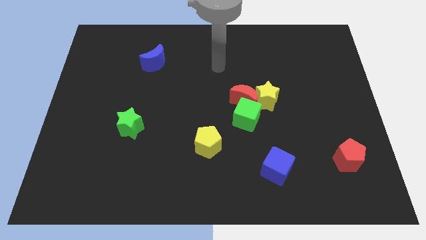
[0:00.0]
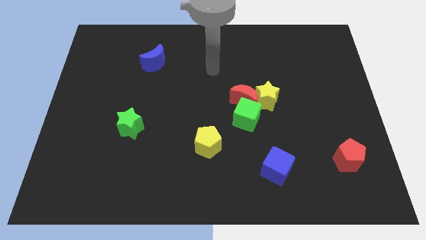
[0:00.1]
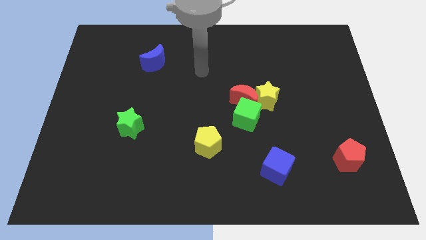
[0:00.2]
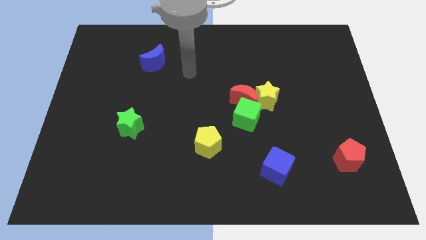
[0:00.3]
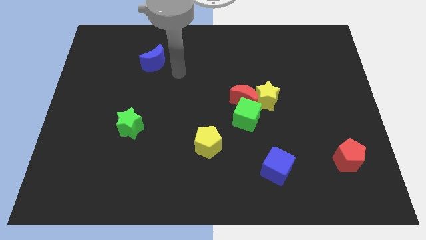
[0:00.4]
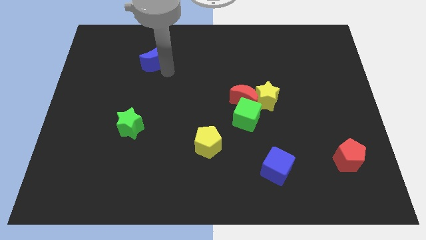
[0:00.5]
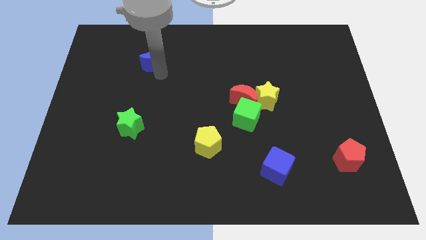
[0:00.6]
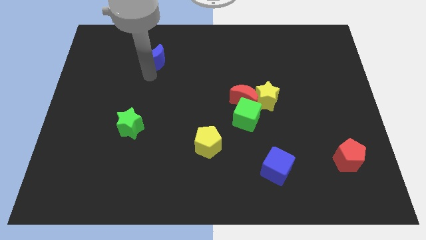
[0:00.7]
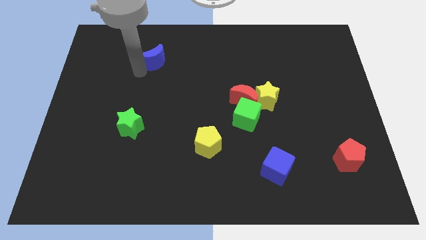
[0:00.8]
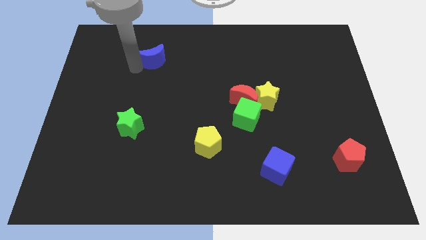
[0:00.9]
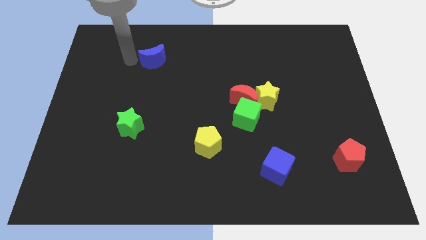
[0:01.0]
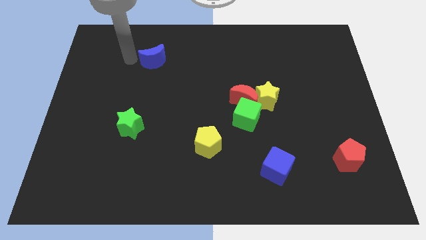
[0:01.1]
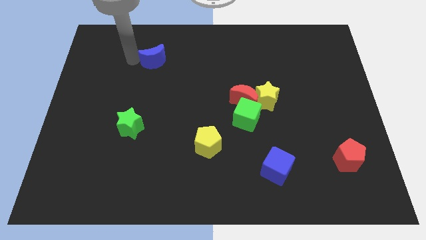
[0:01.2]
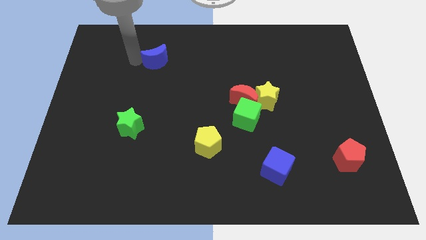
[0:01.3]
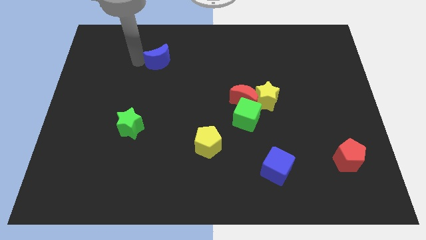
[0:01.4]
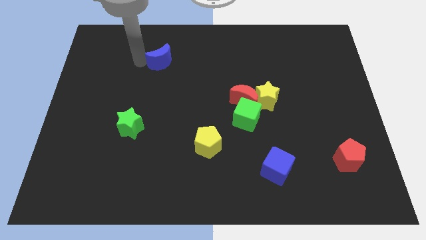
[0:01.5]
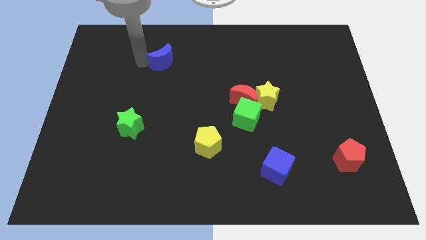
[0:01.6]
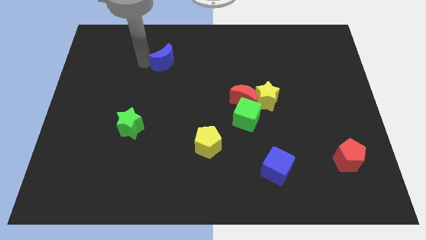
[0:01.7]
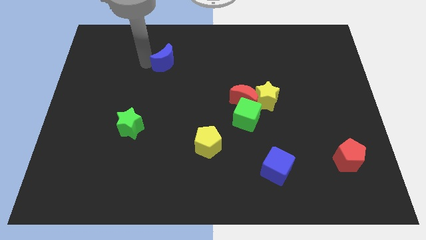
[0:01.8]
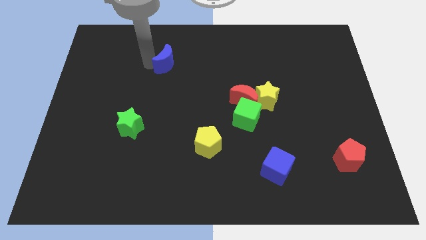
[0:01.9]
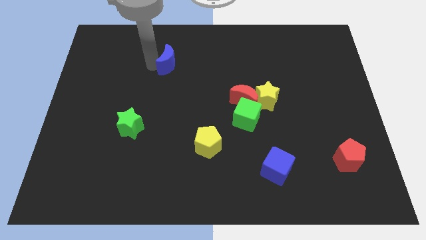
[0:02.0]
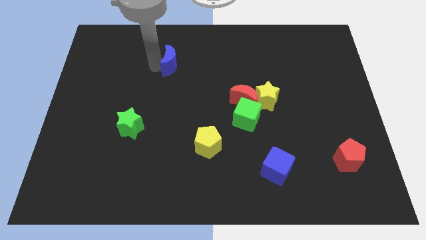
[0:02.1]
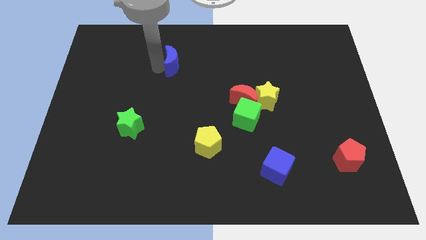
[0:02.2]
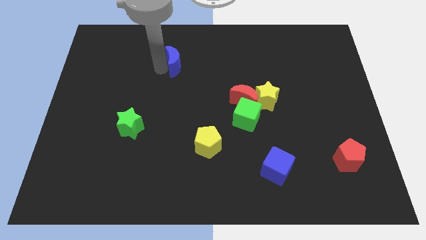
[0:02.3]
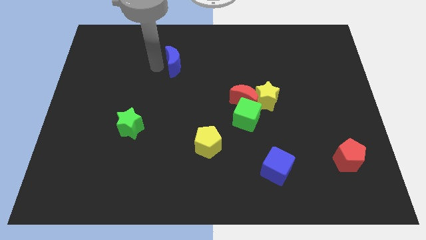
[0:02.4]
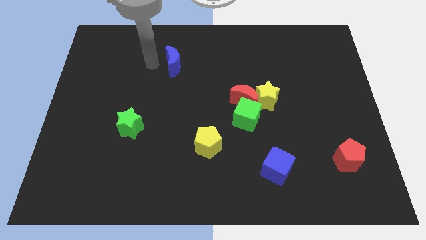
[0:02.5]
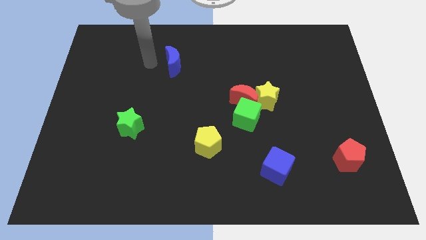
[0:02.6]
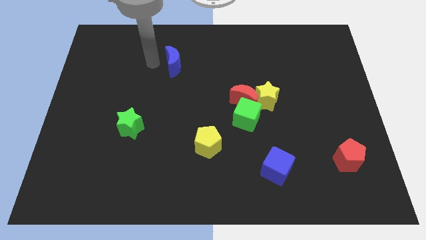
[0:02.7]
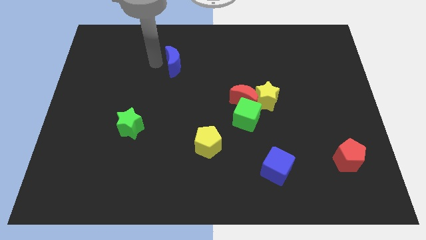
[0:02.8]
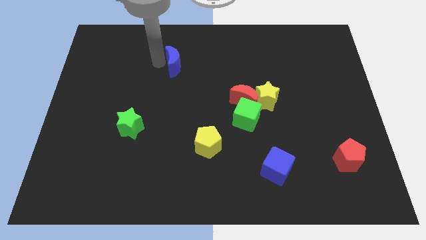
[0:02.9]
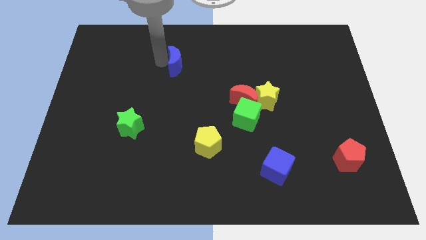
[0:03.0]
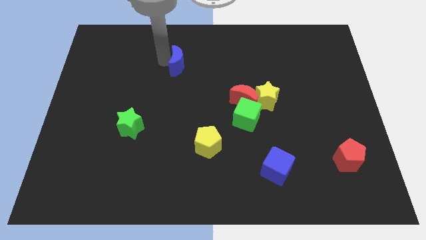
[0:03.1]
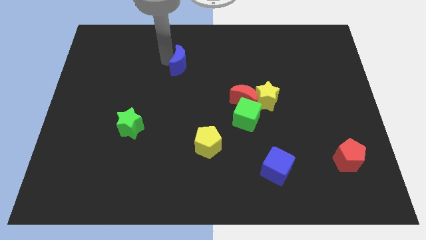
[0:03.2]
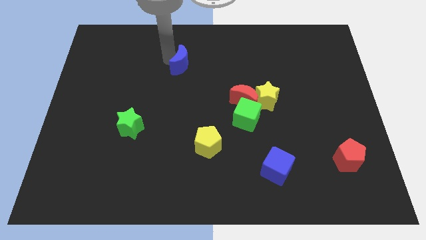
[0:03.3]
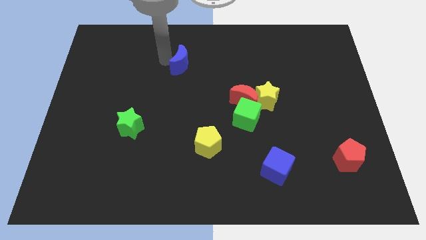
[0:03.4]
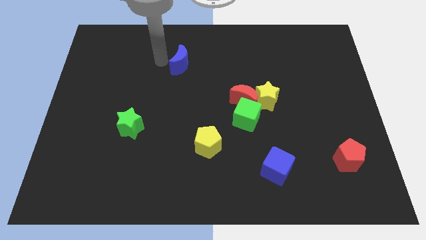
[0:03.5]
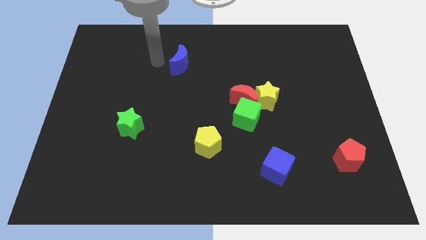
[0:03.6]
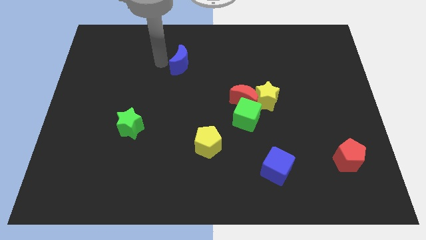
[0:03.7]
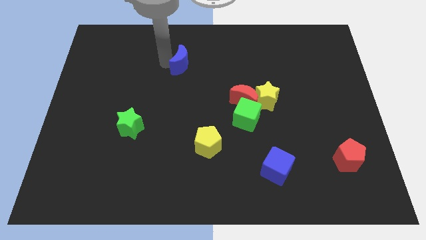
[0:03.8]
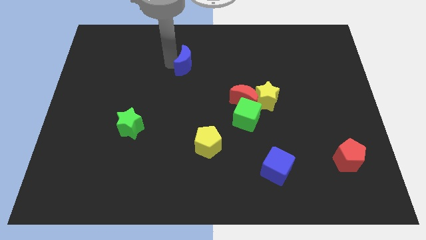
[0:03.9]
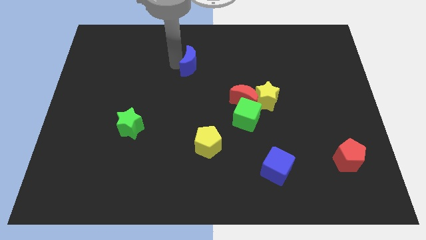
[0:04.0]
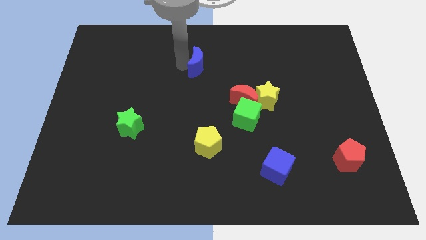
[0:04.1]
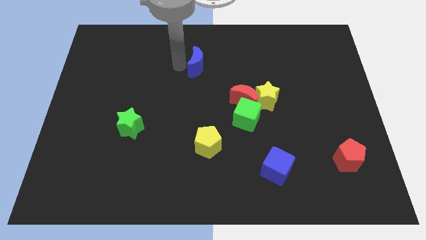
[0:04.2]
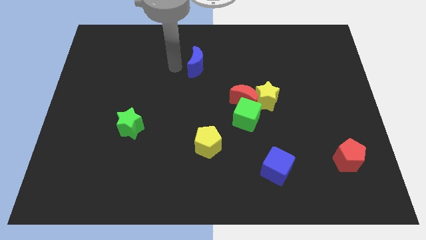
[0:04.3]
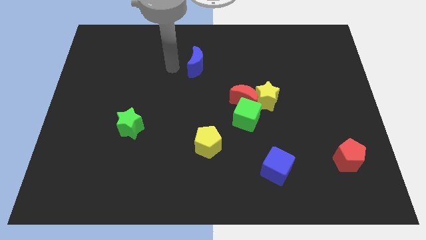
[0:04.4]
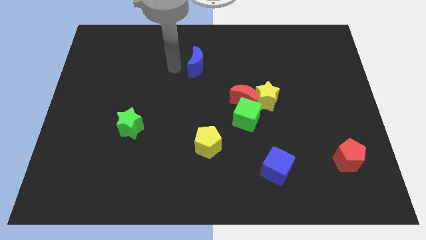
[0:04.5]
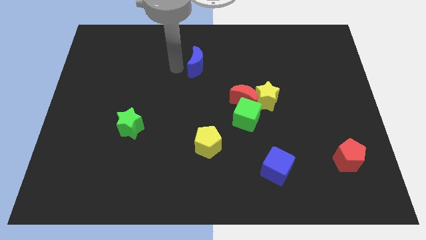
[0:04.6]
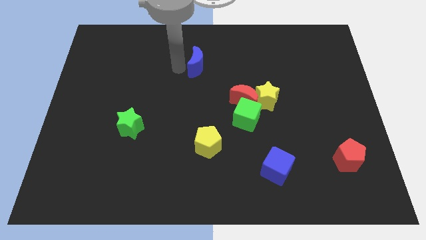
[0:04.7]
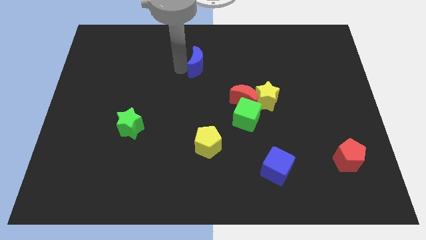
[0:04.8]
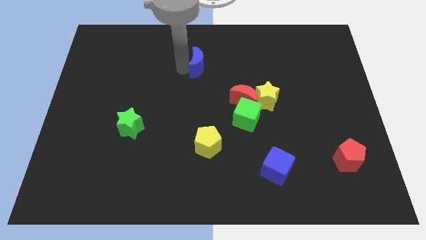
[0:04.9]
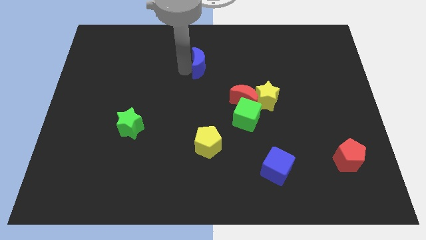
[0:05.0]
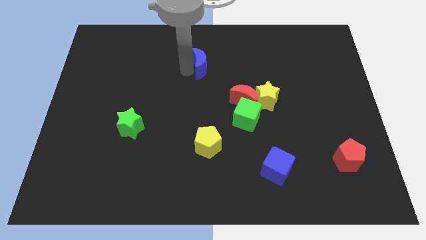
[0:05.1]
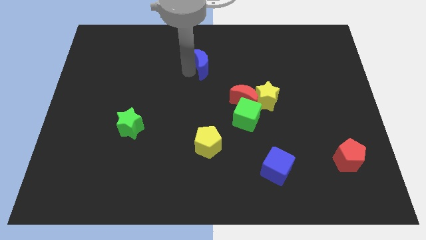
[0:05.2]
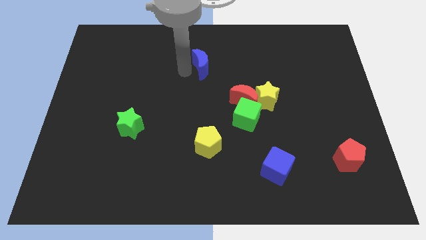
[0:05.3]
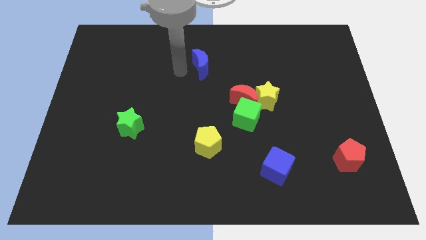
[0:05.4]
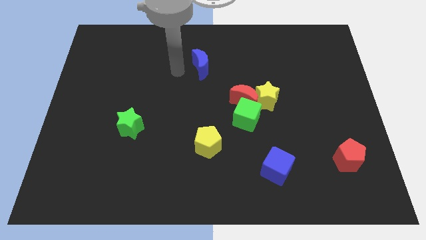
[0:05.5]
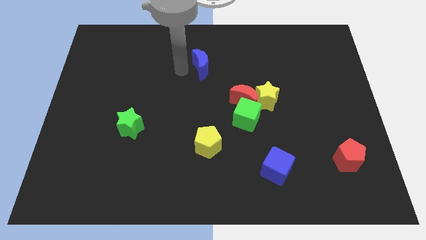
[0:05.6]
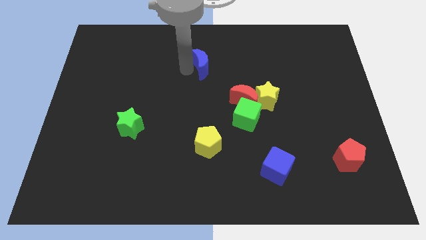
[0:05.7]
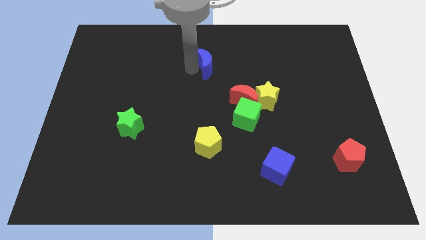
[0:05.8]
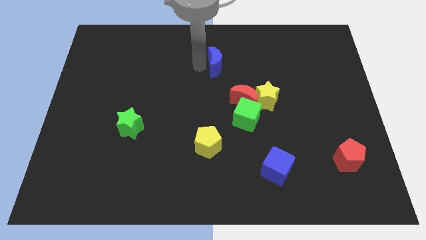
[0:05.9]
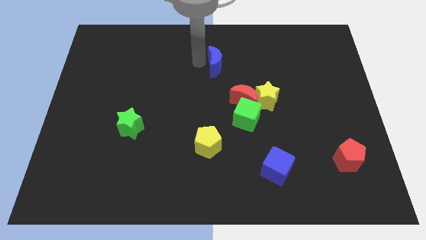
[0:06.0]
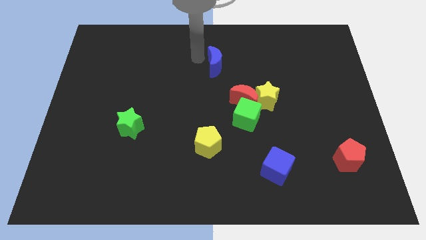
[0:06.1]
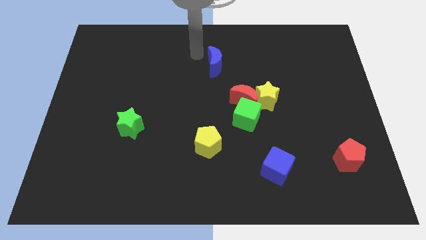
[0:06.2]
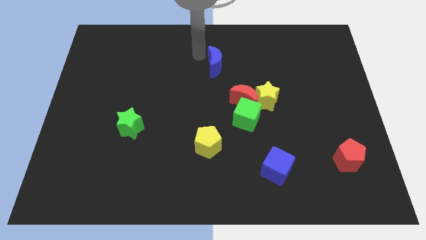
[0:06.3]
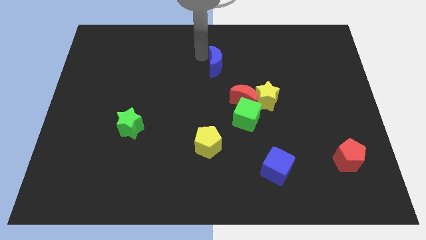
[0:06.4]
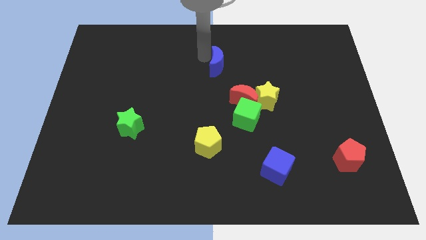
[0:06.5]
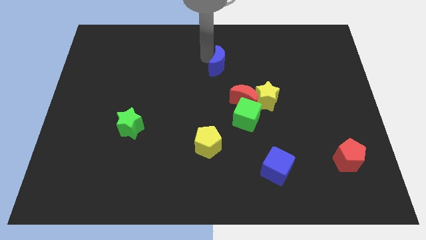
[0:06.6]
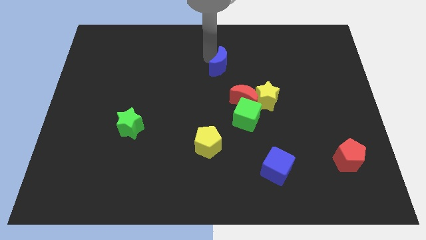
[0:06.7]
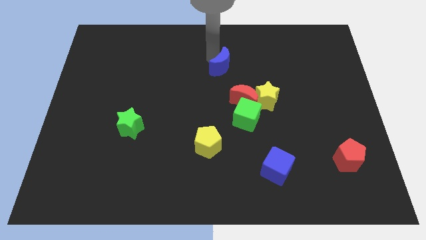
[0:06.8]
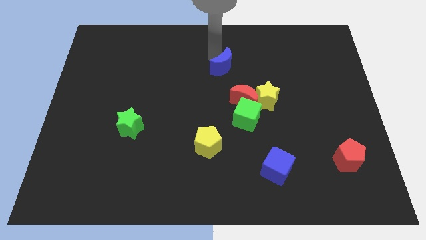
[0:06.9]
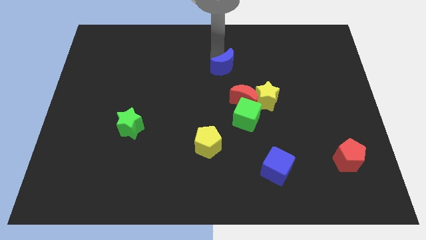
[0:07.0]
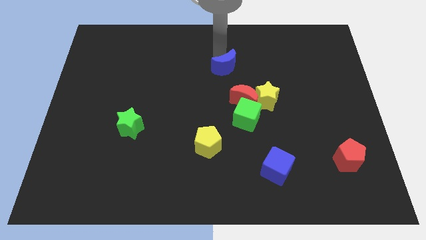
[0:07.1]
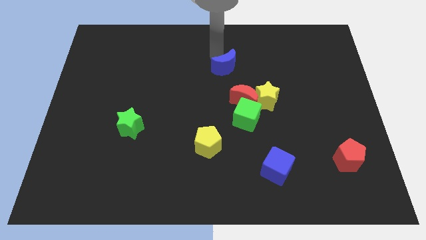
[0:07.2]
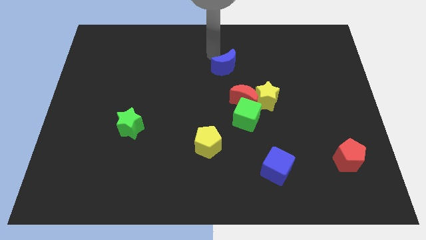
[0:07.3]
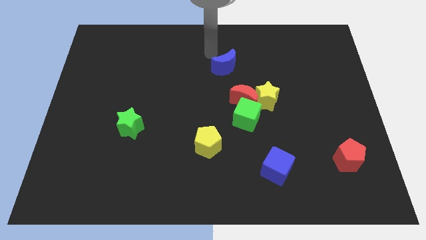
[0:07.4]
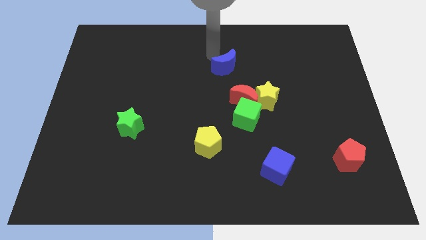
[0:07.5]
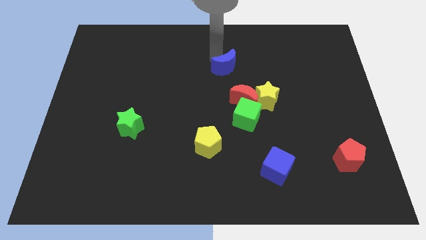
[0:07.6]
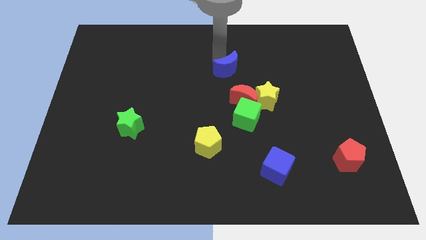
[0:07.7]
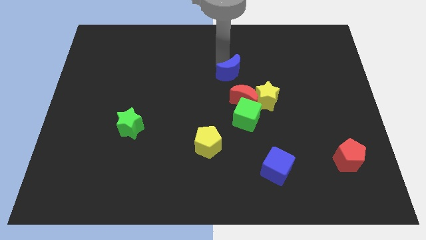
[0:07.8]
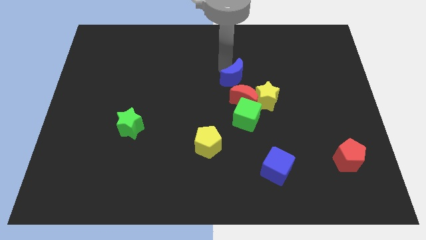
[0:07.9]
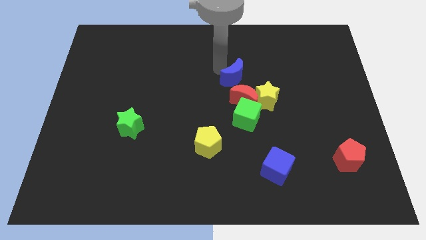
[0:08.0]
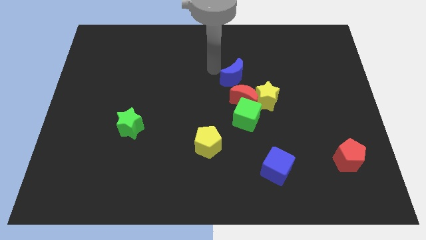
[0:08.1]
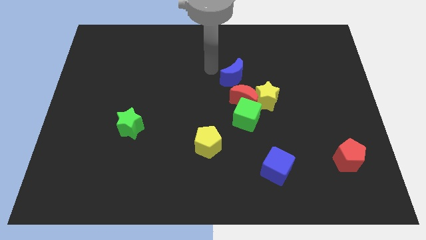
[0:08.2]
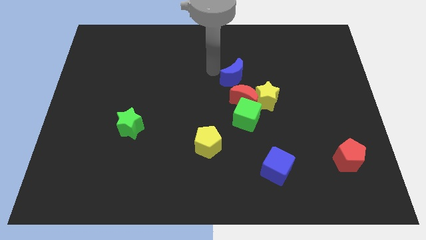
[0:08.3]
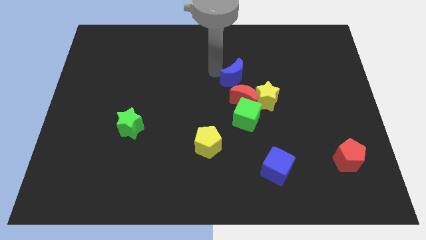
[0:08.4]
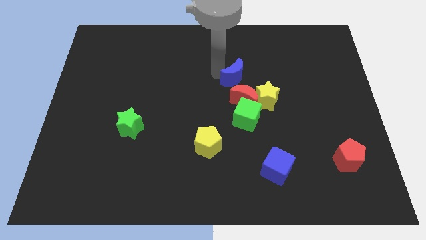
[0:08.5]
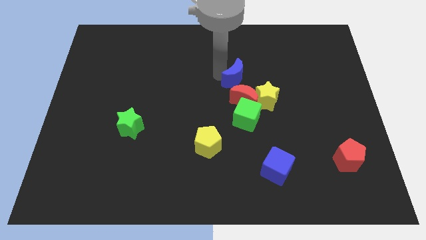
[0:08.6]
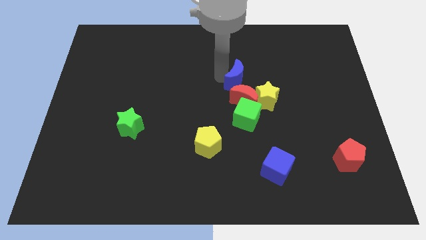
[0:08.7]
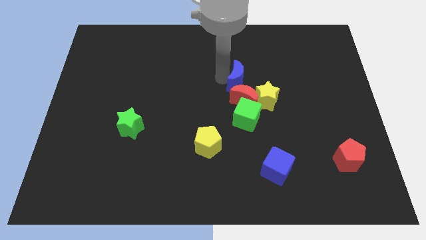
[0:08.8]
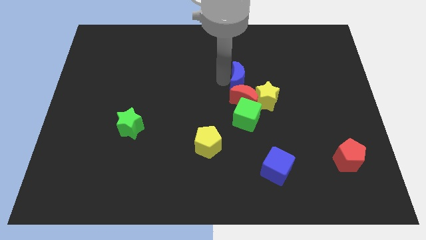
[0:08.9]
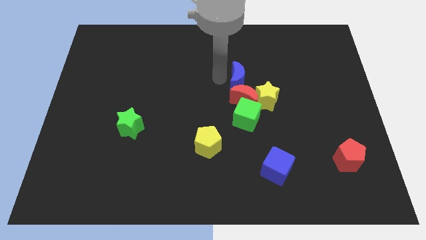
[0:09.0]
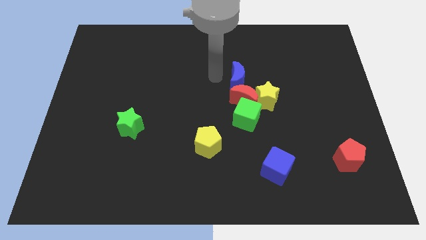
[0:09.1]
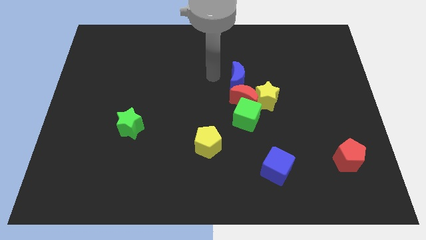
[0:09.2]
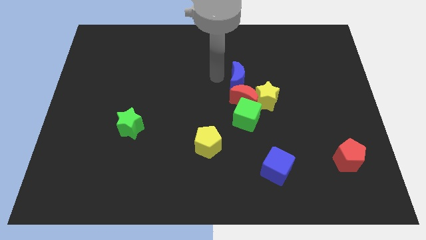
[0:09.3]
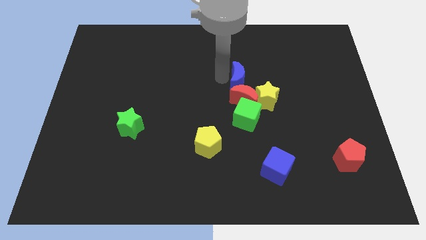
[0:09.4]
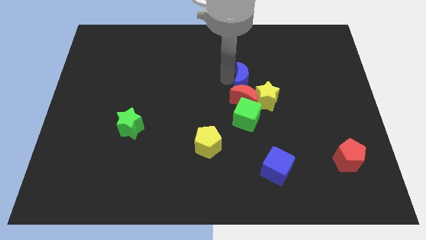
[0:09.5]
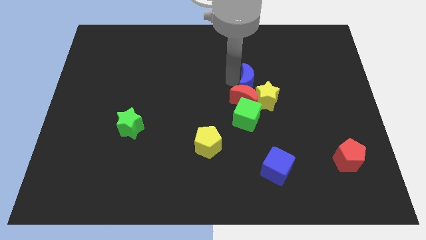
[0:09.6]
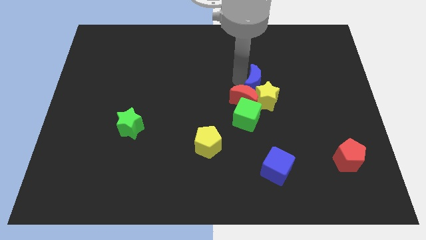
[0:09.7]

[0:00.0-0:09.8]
slide the blue moon to the yellow star
